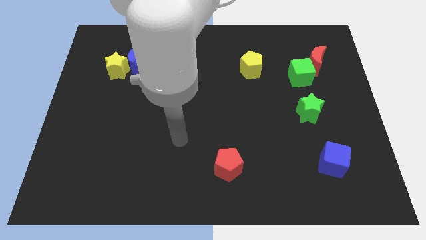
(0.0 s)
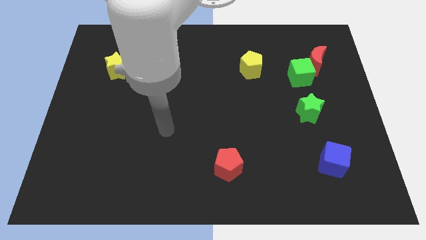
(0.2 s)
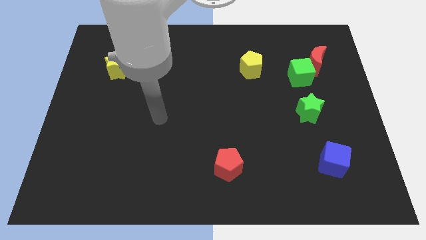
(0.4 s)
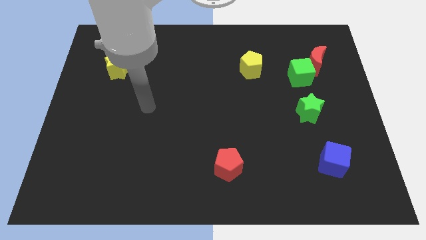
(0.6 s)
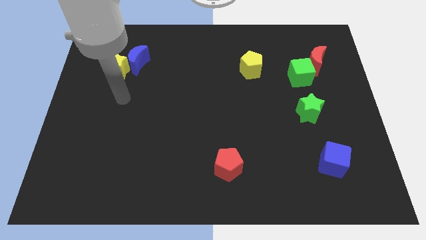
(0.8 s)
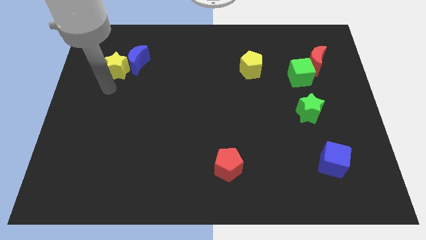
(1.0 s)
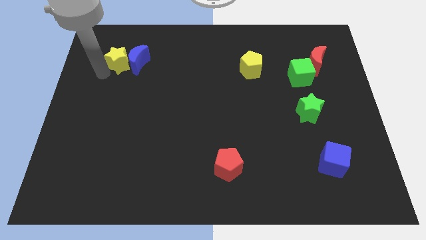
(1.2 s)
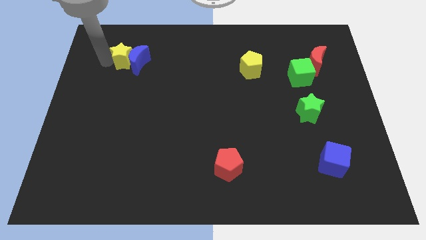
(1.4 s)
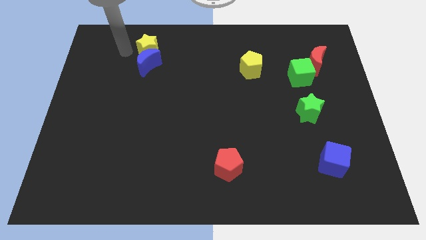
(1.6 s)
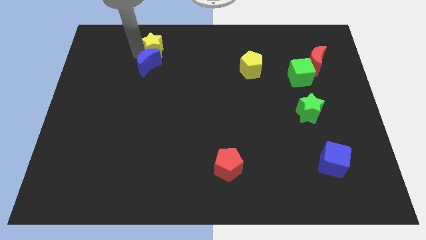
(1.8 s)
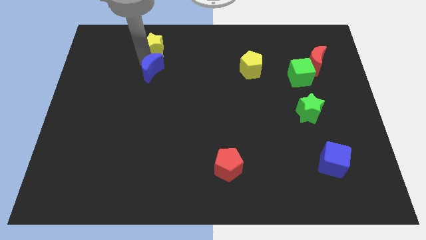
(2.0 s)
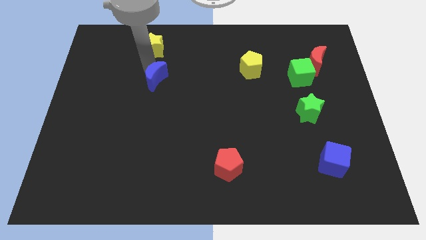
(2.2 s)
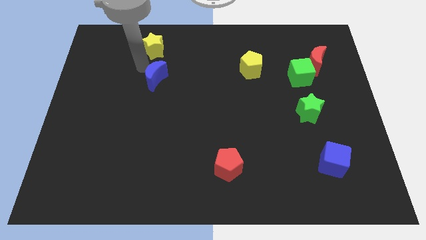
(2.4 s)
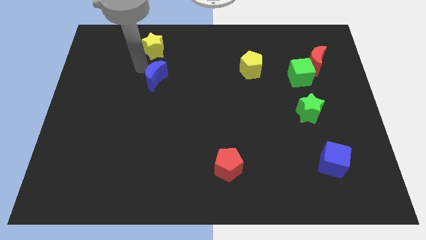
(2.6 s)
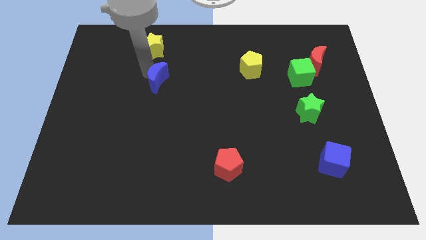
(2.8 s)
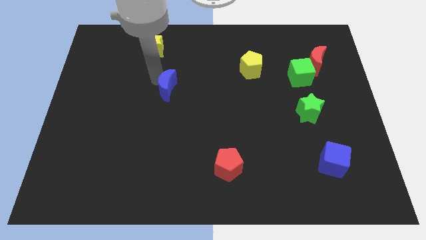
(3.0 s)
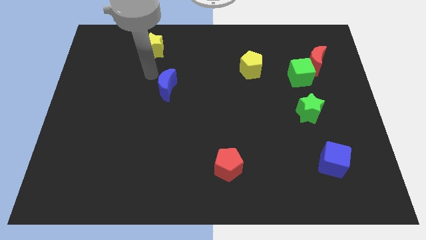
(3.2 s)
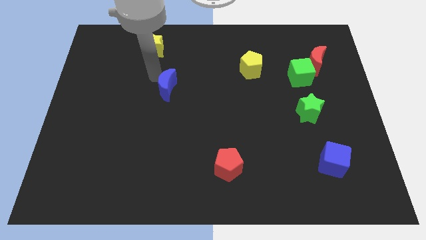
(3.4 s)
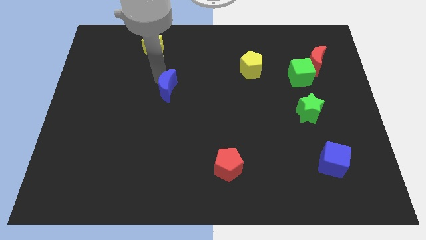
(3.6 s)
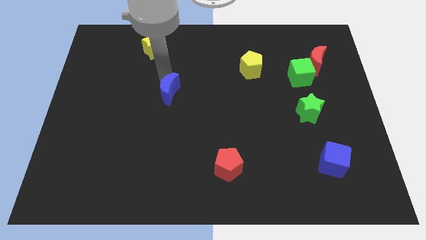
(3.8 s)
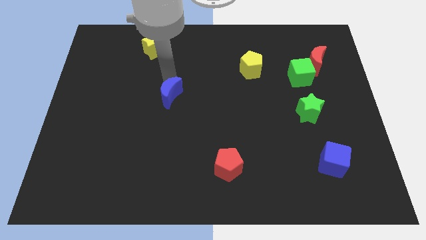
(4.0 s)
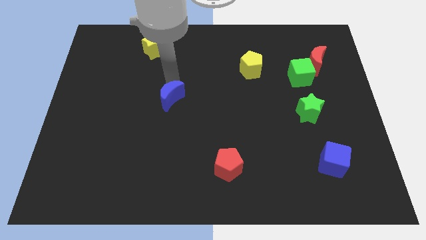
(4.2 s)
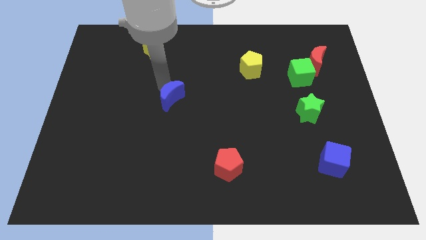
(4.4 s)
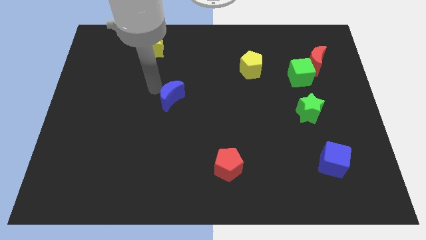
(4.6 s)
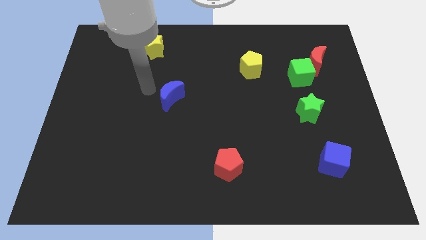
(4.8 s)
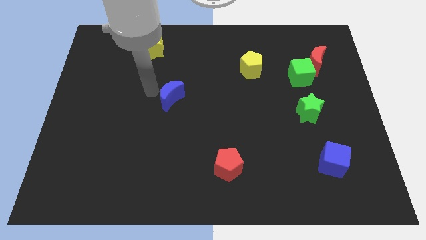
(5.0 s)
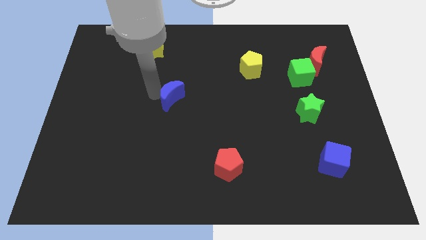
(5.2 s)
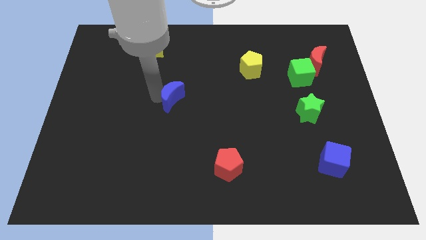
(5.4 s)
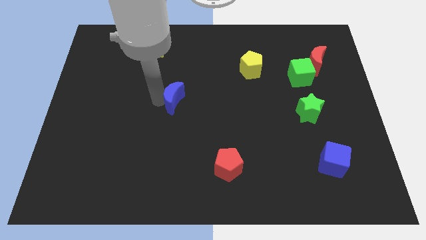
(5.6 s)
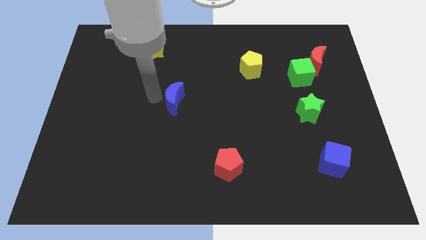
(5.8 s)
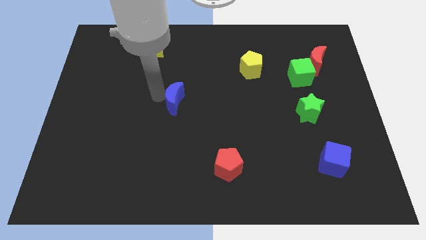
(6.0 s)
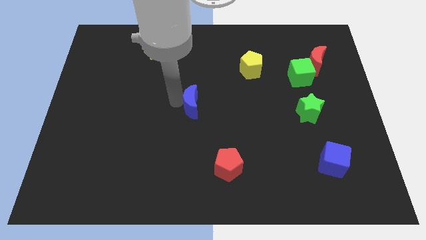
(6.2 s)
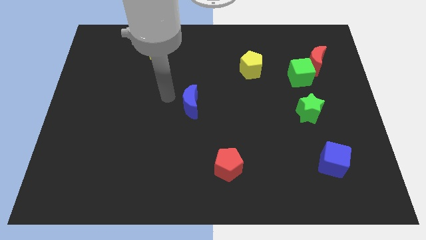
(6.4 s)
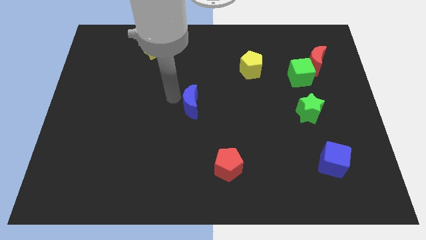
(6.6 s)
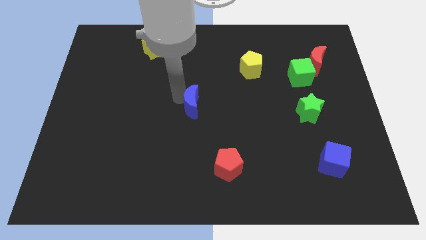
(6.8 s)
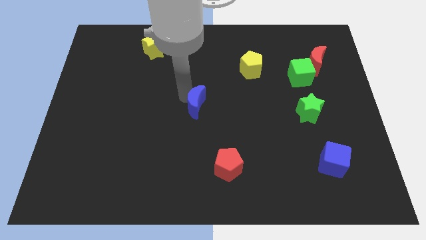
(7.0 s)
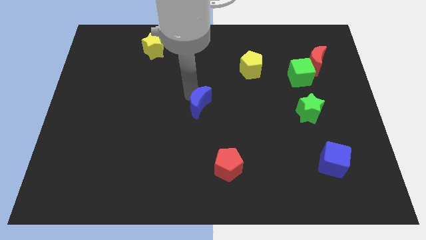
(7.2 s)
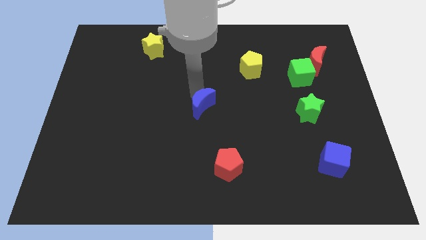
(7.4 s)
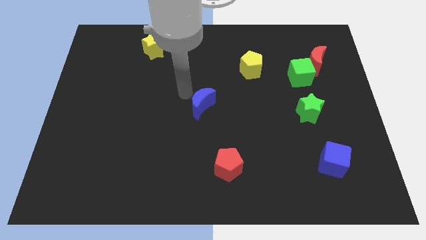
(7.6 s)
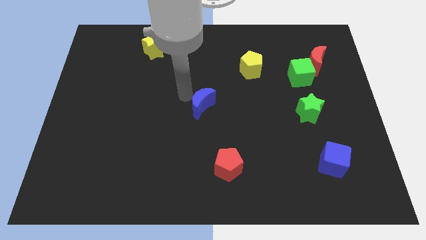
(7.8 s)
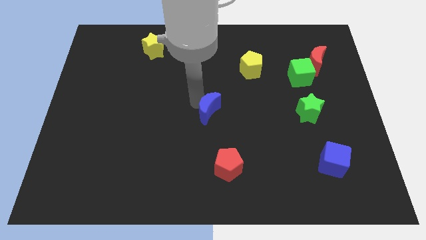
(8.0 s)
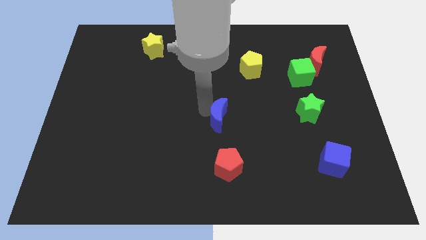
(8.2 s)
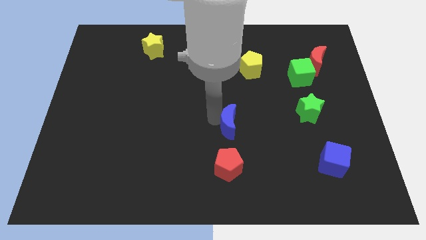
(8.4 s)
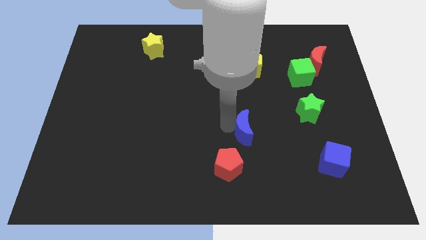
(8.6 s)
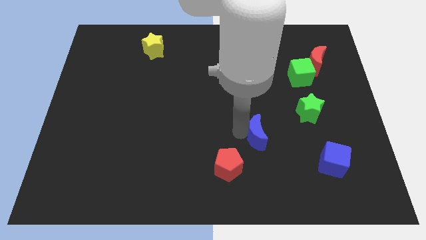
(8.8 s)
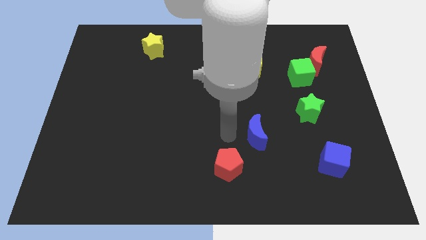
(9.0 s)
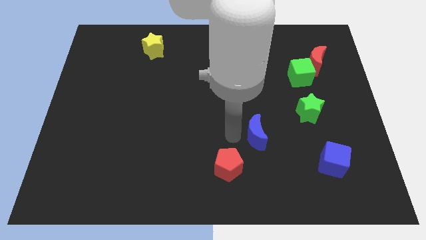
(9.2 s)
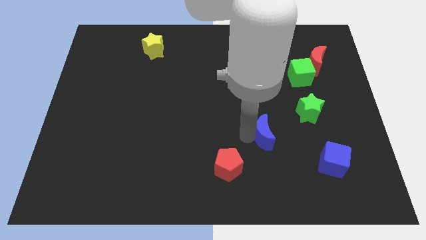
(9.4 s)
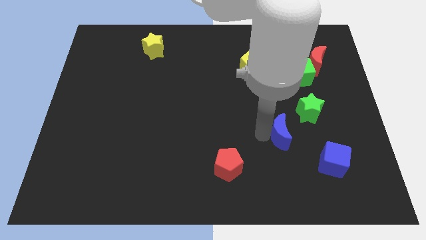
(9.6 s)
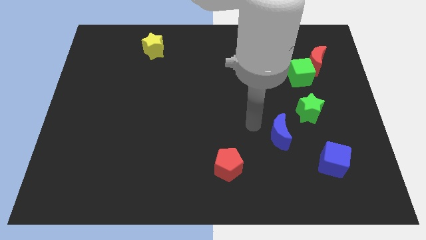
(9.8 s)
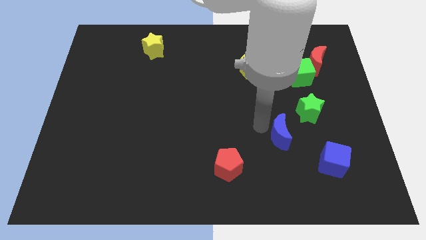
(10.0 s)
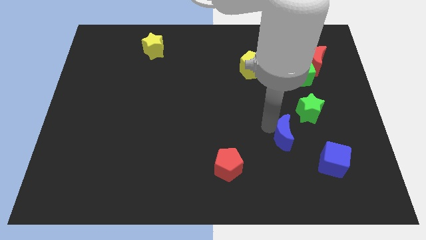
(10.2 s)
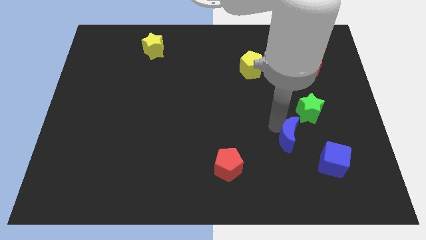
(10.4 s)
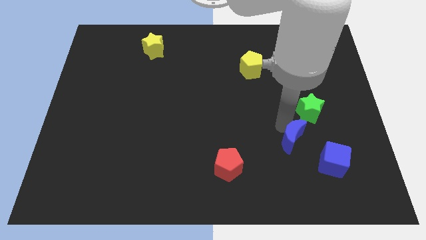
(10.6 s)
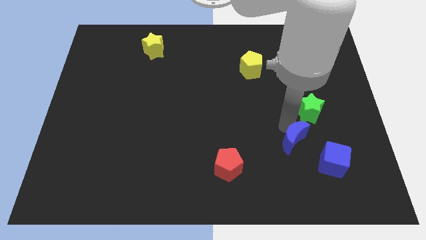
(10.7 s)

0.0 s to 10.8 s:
slide the blue moon to the bottom of the green star

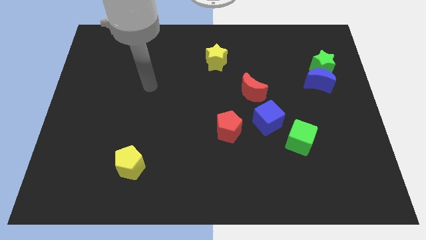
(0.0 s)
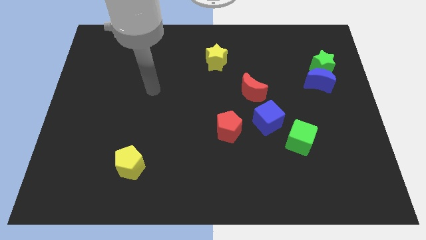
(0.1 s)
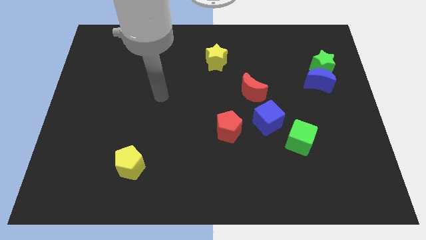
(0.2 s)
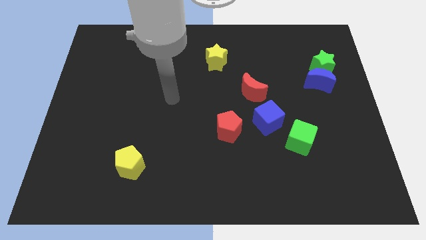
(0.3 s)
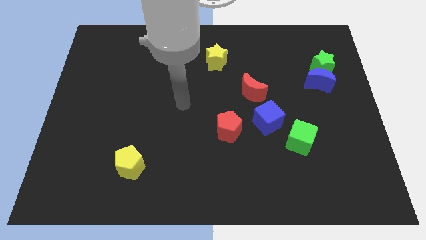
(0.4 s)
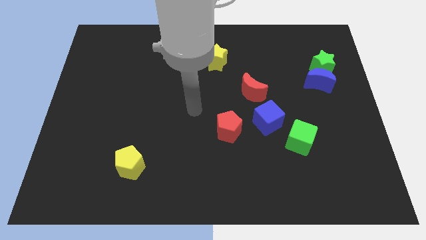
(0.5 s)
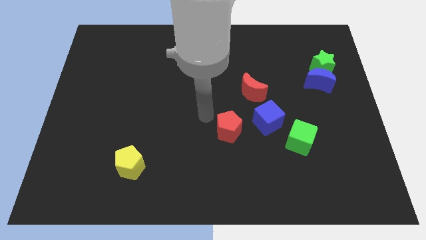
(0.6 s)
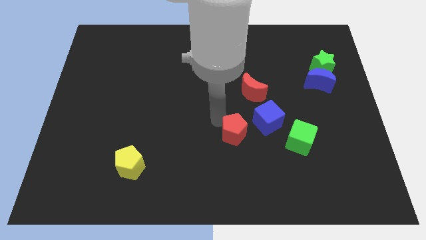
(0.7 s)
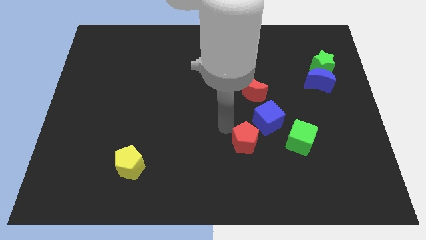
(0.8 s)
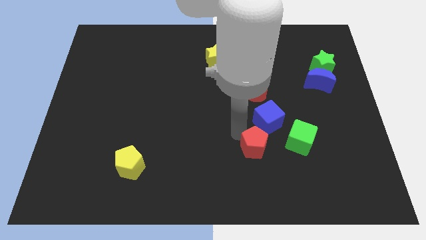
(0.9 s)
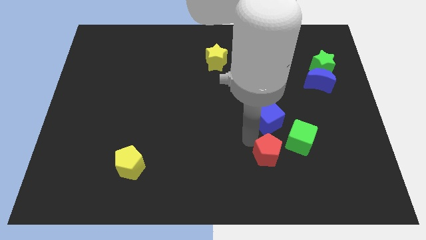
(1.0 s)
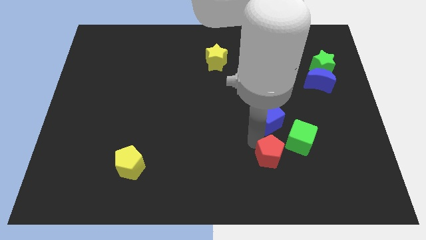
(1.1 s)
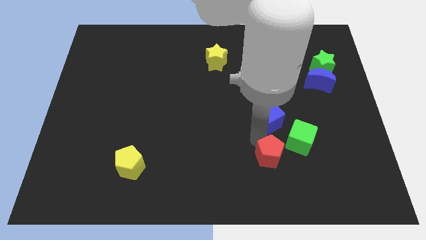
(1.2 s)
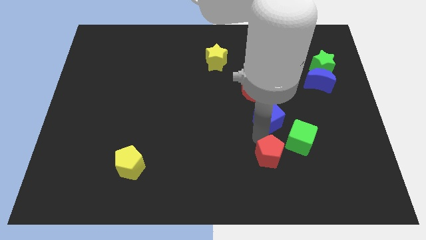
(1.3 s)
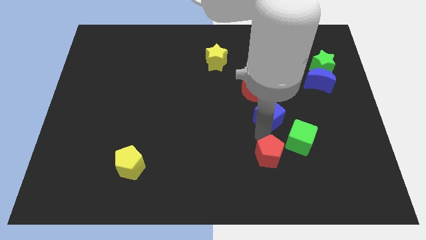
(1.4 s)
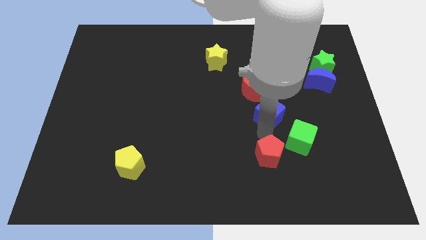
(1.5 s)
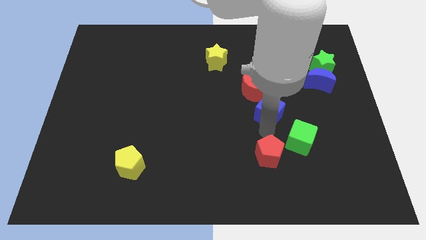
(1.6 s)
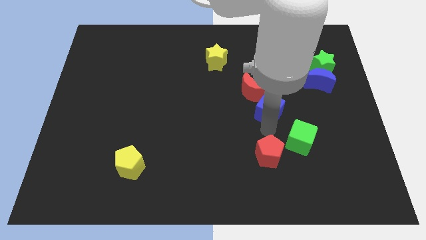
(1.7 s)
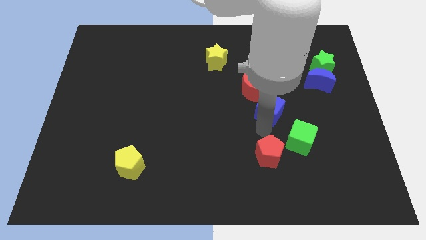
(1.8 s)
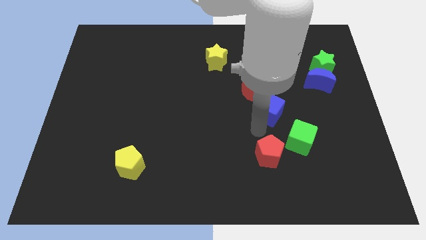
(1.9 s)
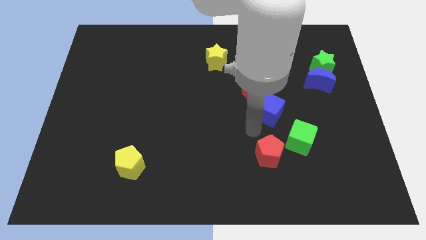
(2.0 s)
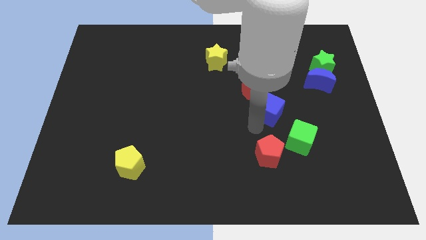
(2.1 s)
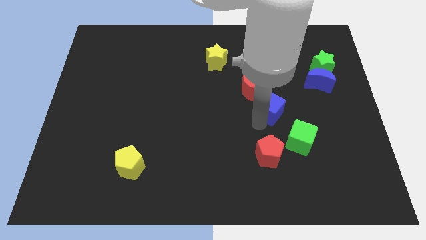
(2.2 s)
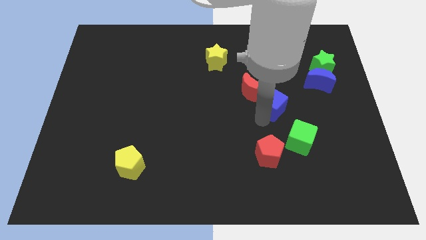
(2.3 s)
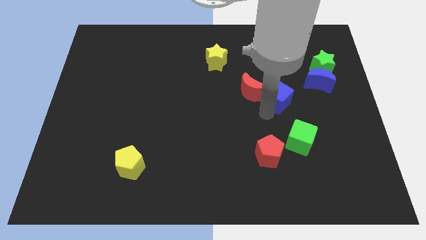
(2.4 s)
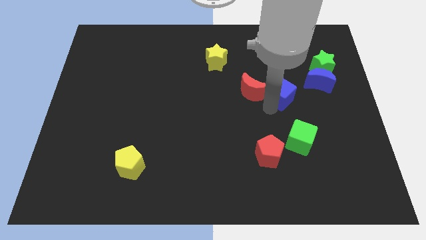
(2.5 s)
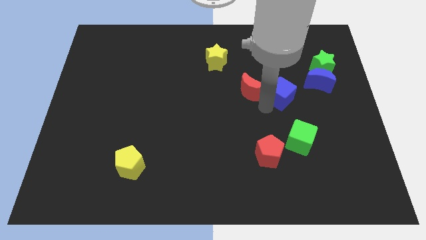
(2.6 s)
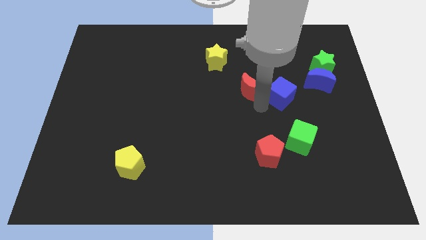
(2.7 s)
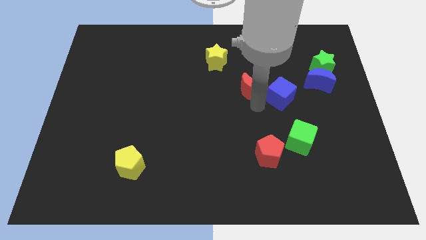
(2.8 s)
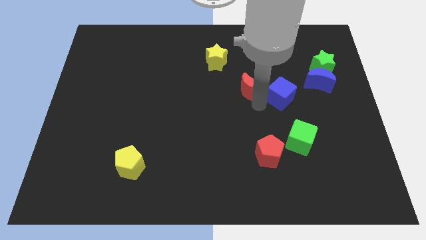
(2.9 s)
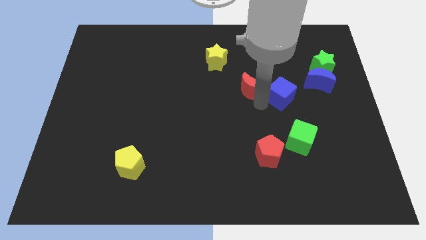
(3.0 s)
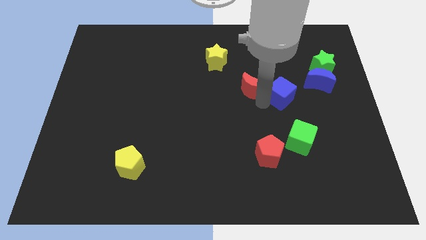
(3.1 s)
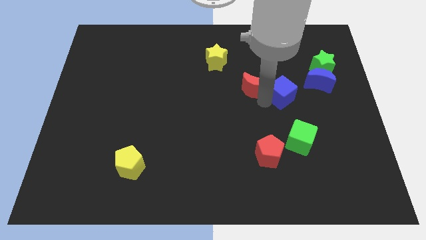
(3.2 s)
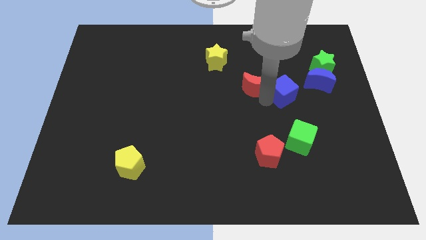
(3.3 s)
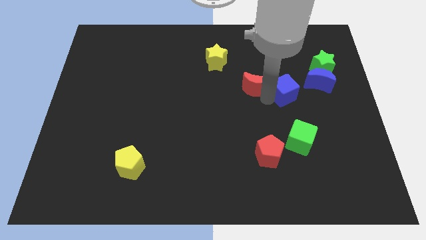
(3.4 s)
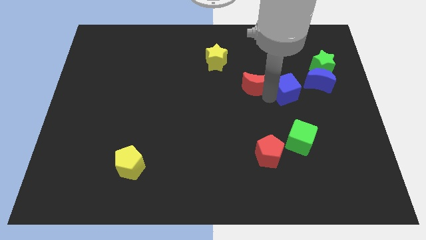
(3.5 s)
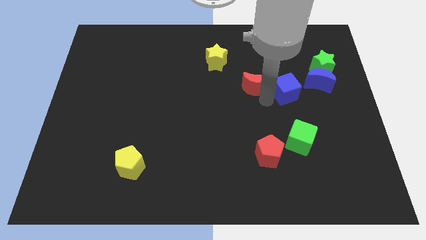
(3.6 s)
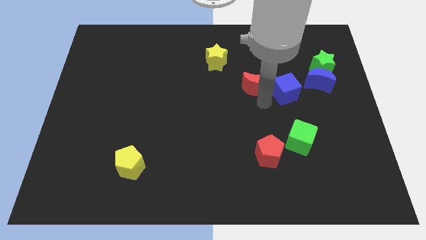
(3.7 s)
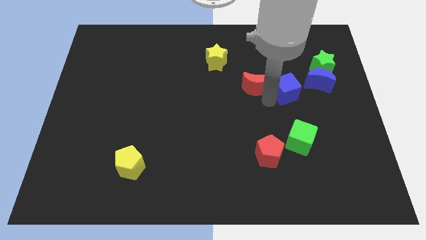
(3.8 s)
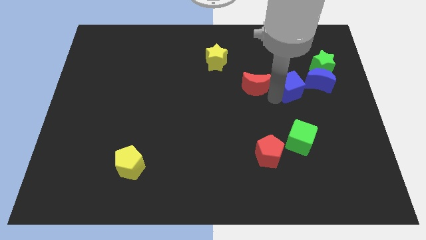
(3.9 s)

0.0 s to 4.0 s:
put the blue cube to the bottom left side of the green star
